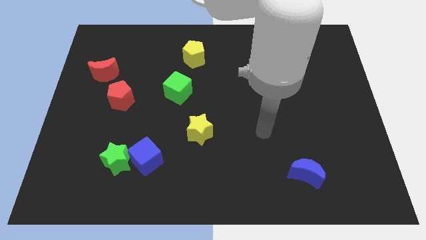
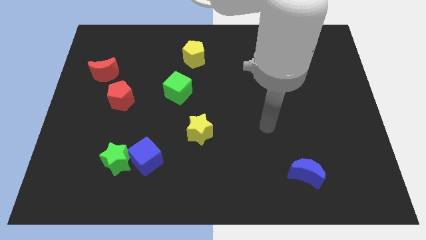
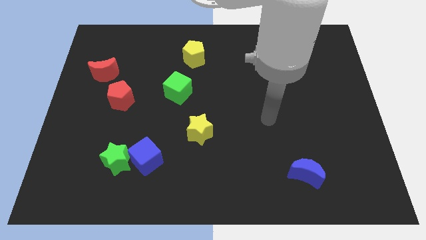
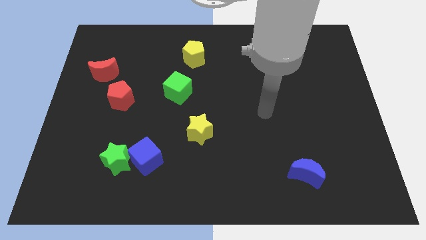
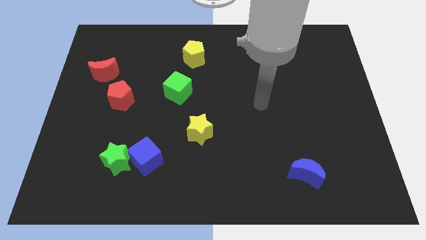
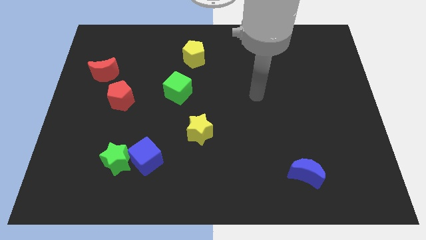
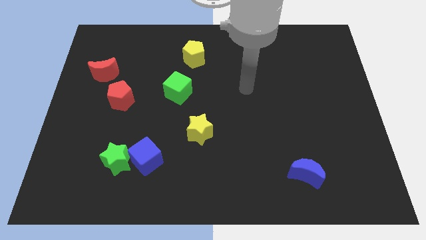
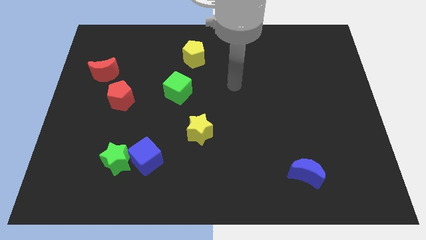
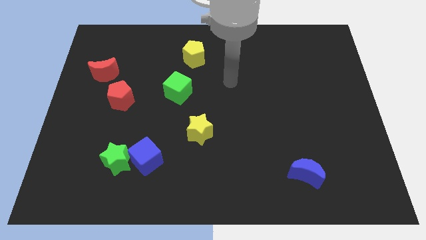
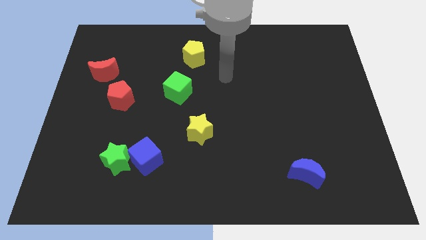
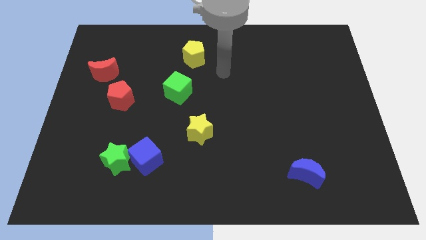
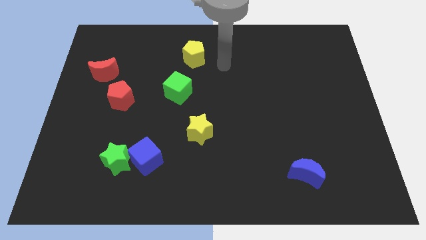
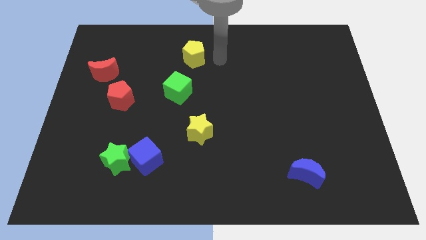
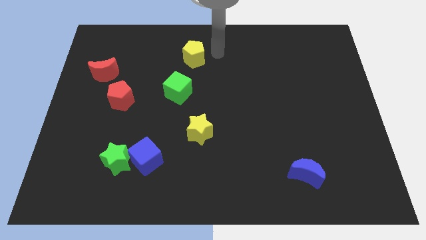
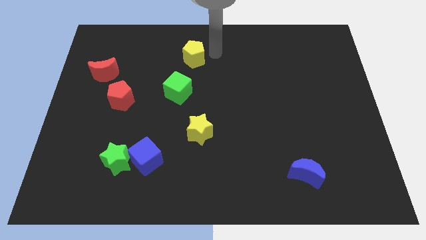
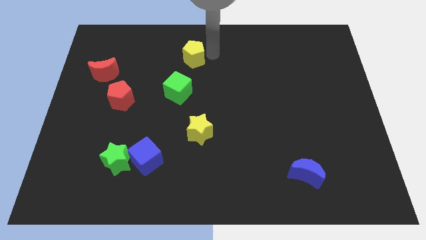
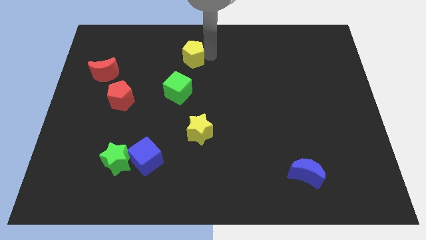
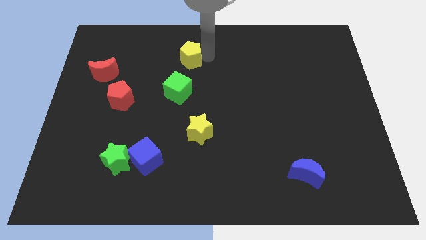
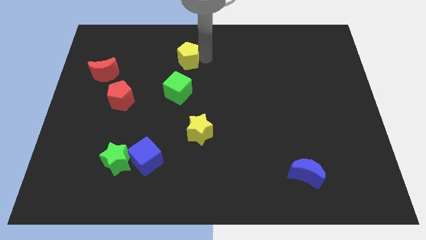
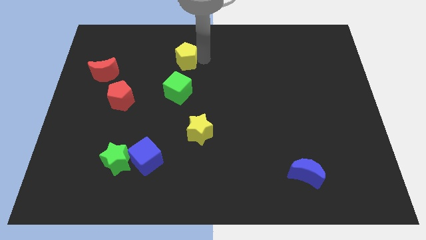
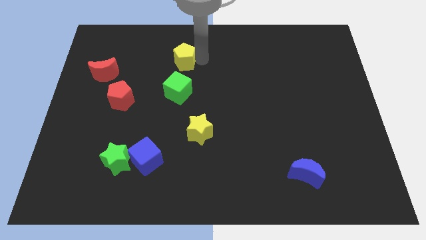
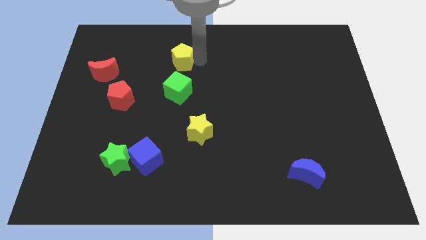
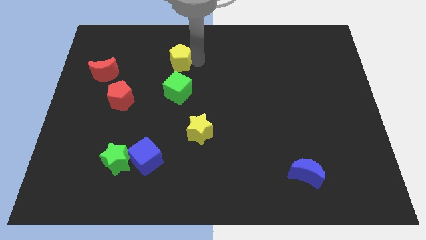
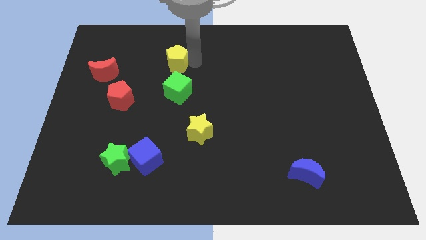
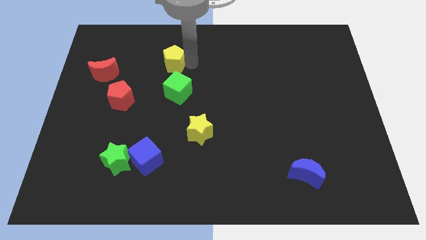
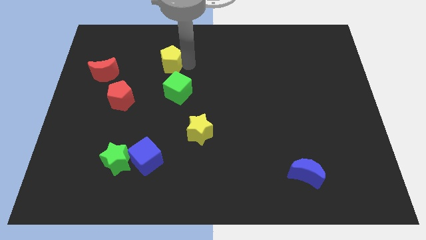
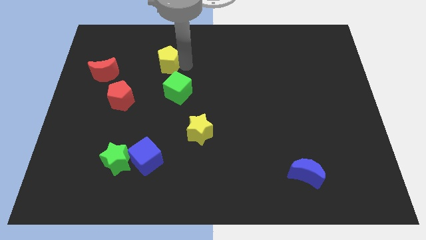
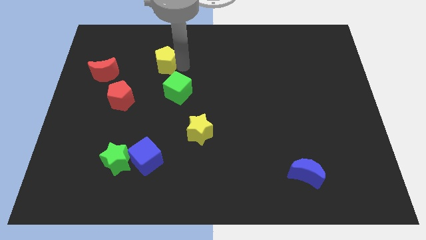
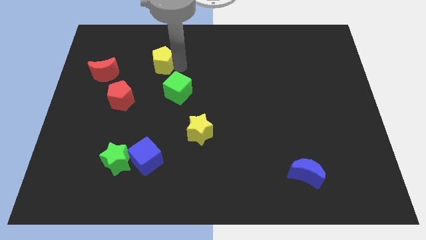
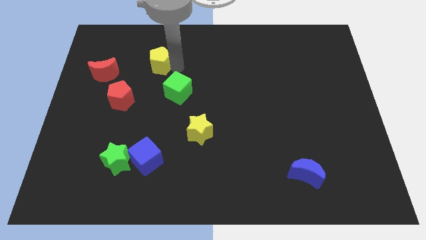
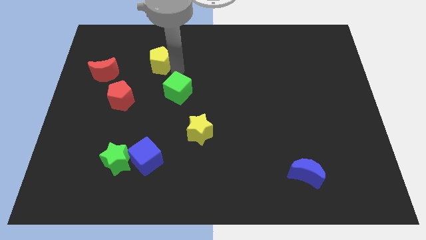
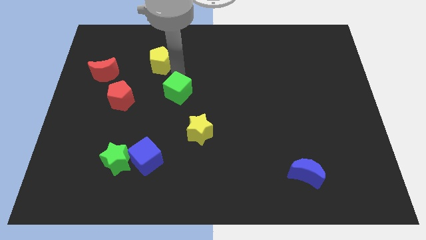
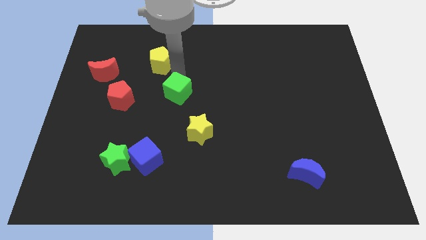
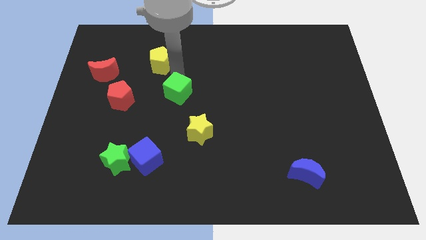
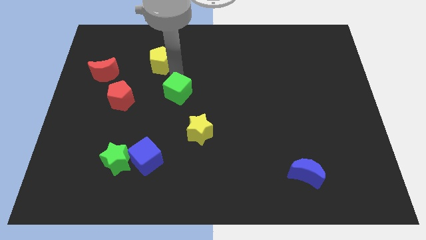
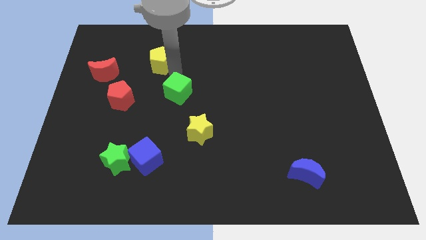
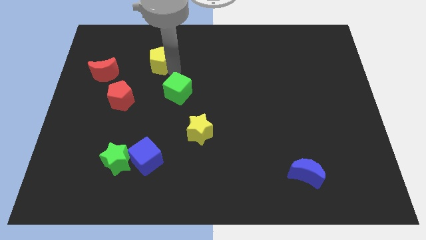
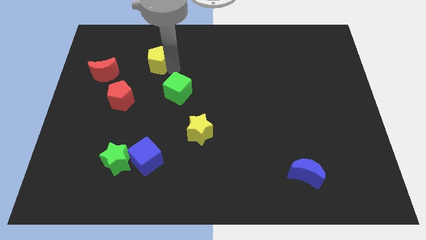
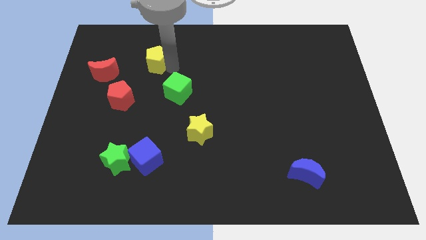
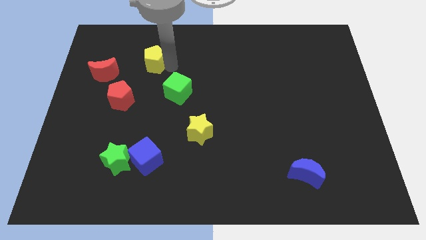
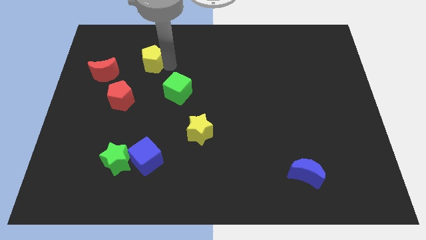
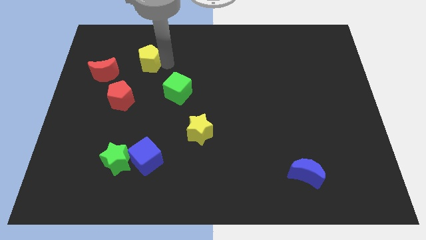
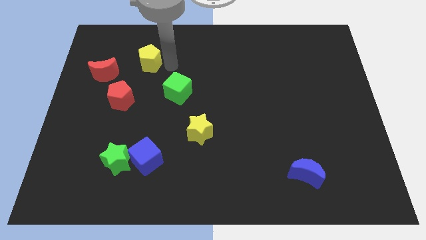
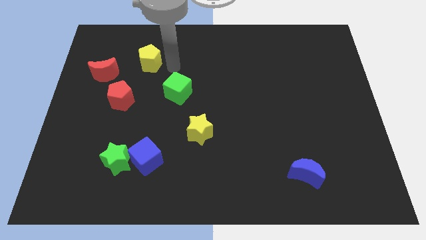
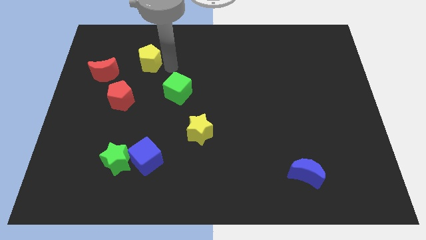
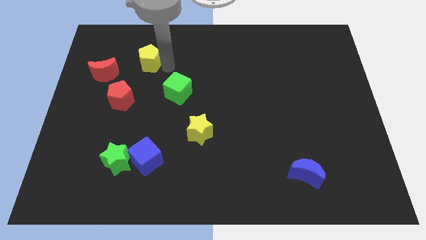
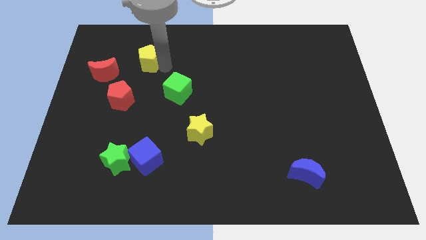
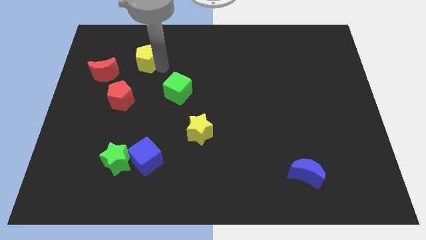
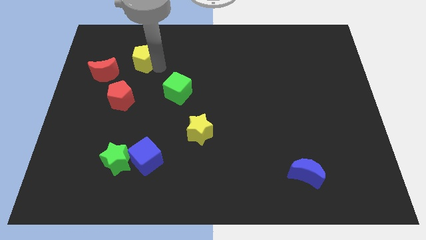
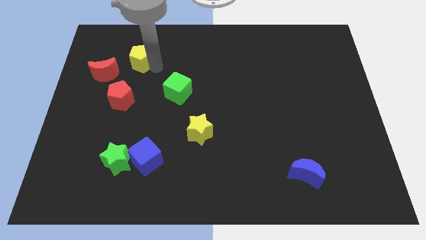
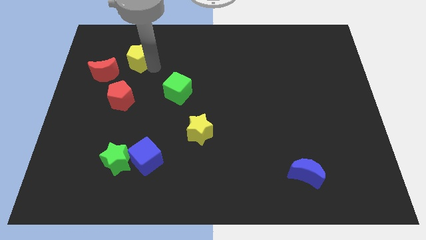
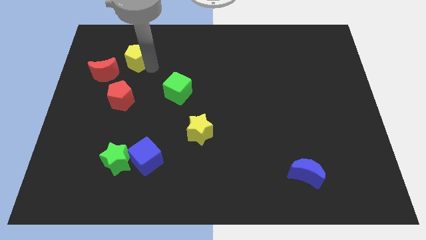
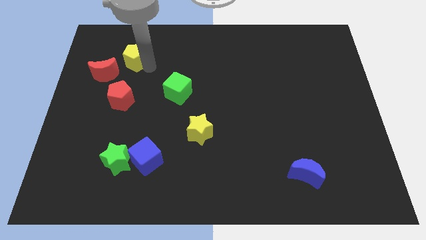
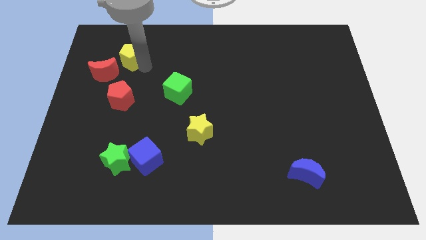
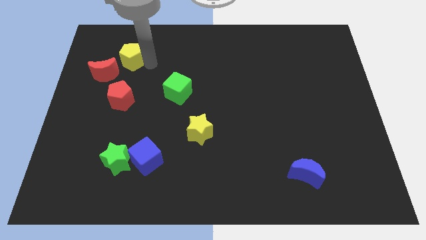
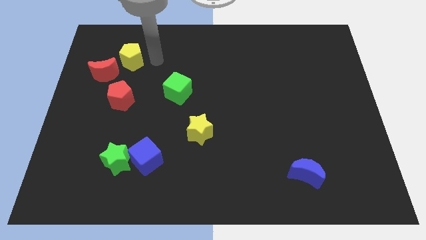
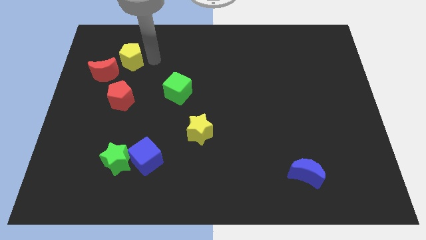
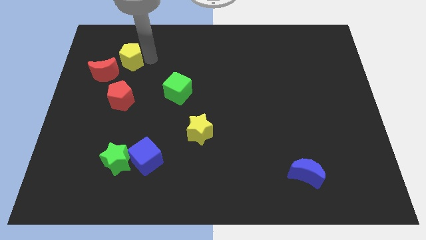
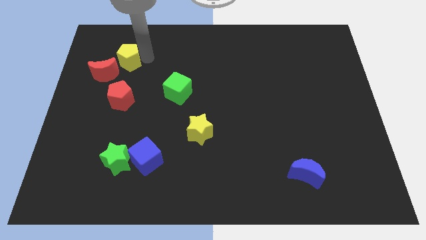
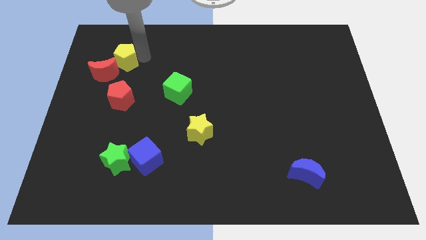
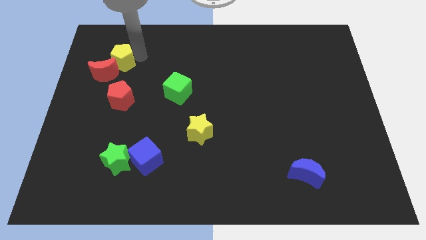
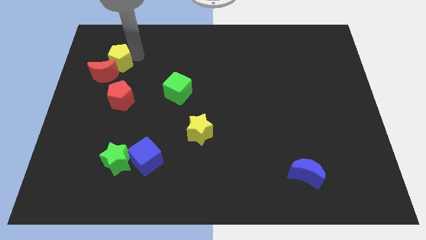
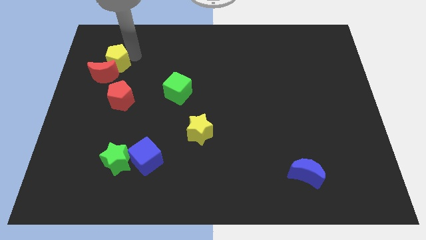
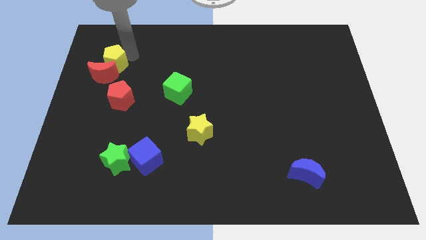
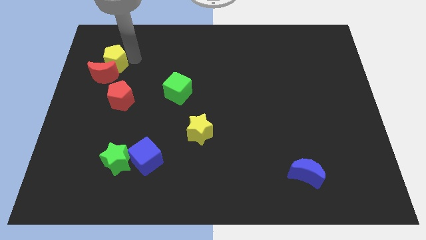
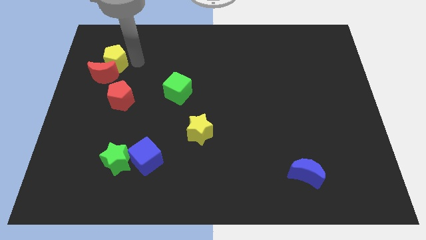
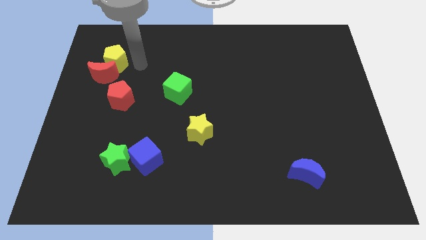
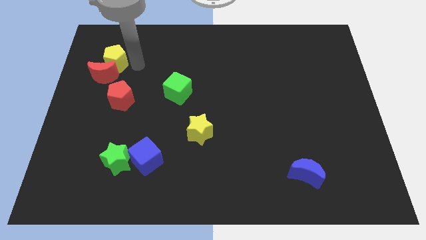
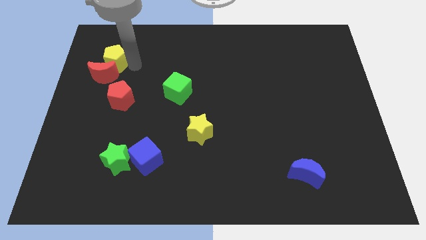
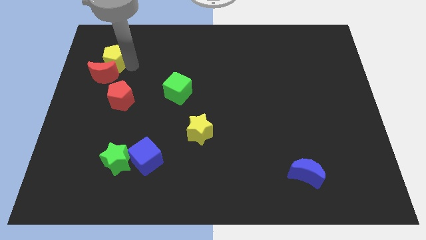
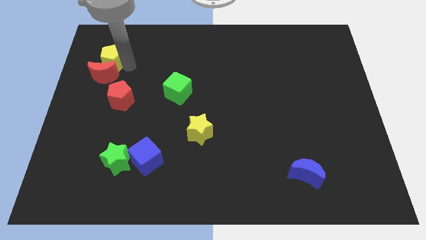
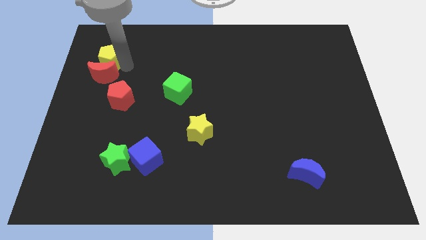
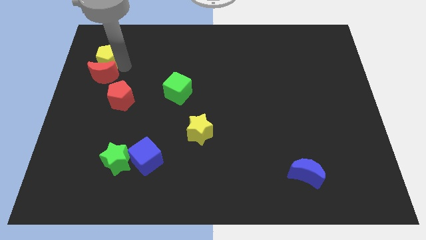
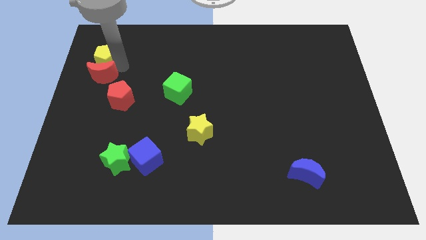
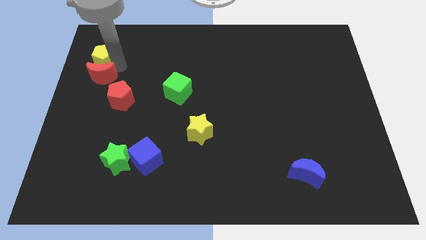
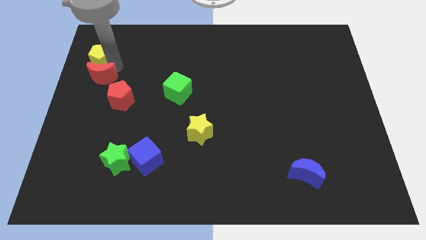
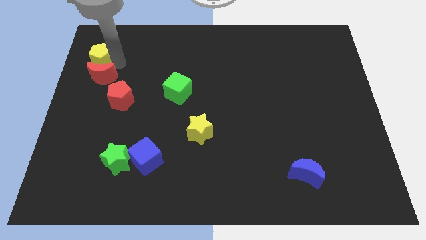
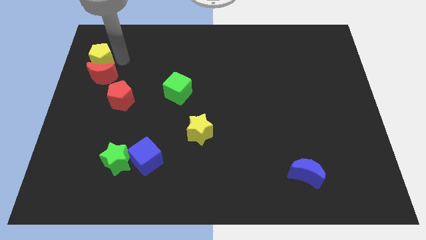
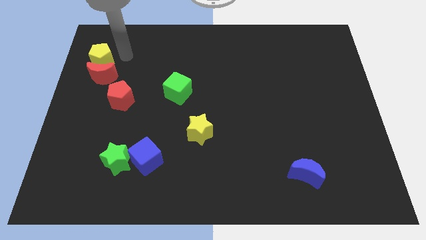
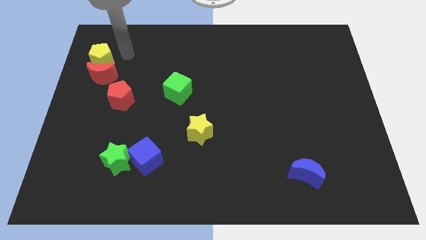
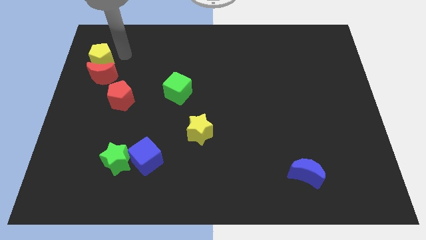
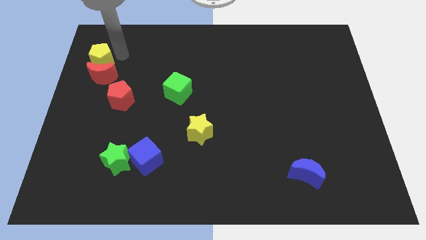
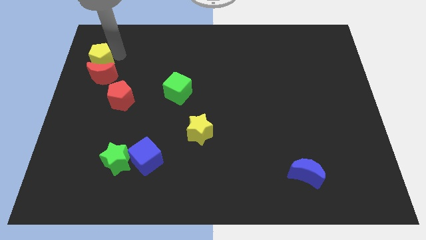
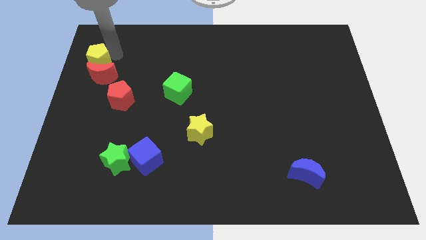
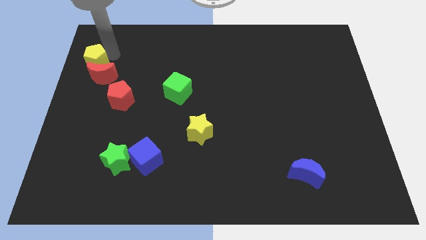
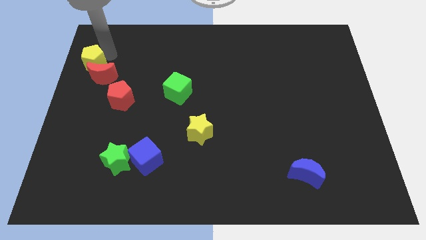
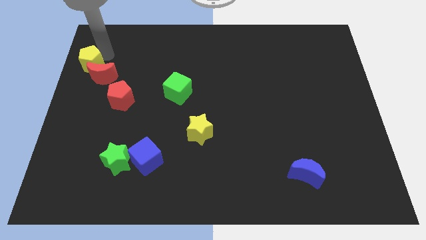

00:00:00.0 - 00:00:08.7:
put the yellow pentagon to the center left
